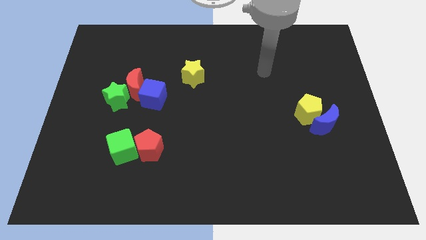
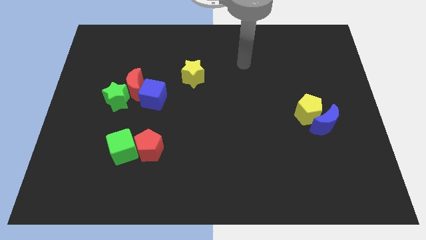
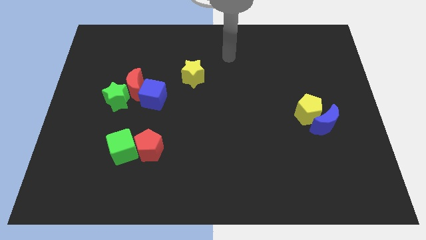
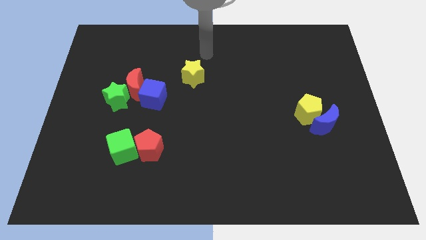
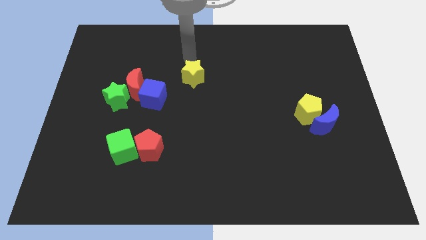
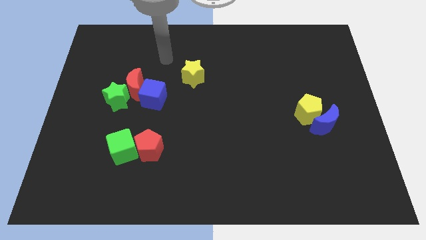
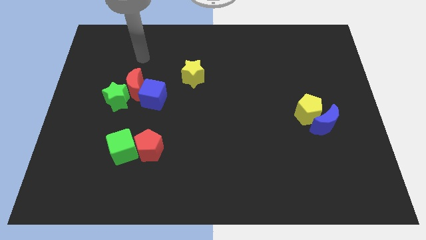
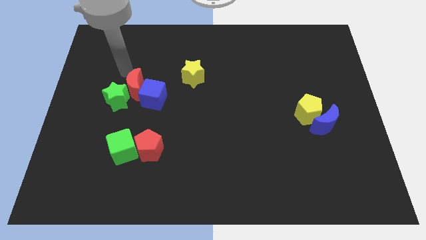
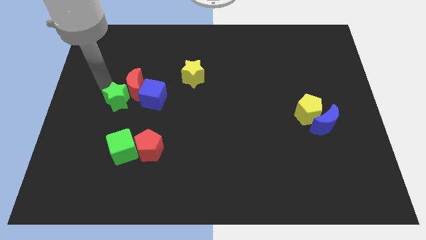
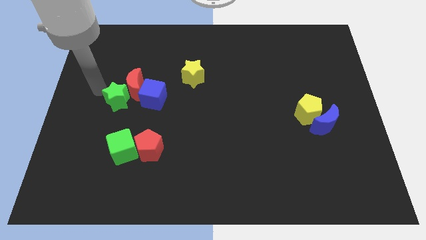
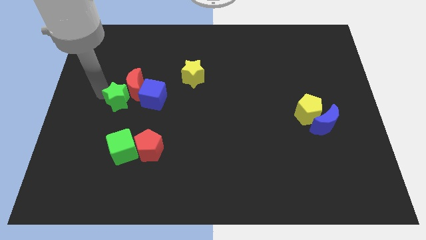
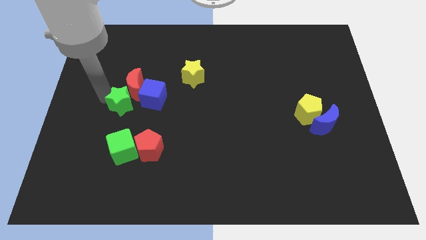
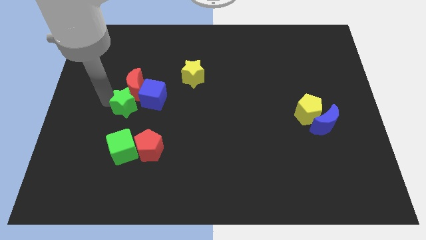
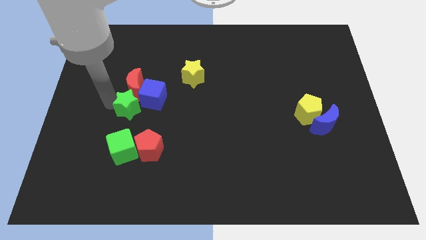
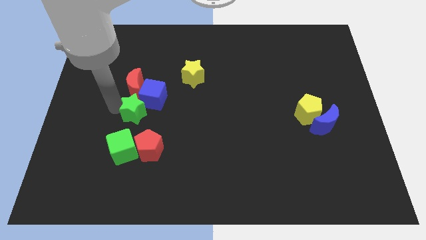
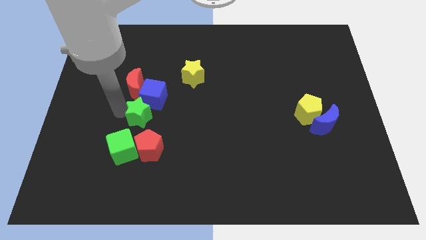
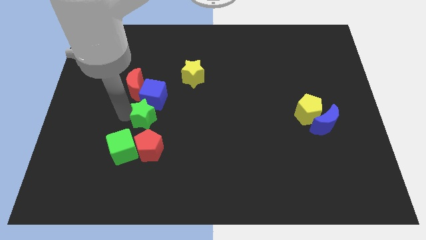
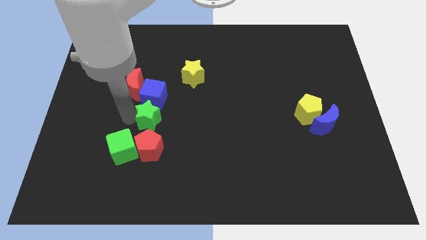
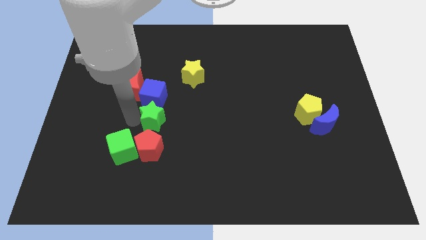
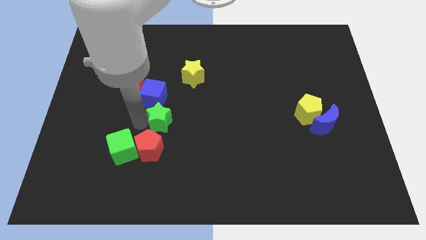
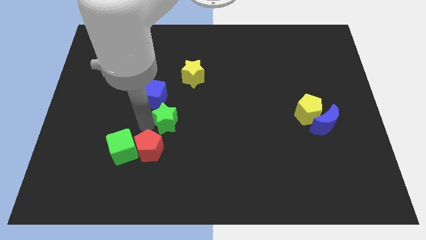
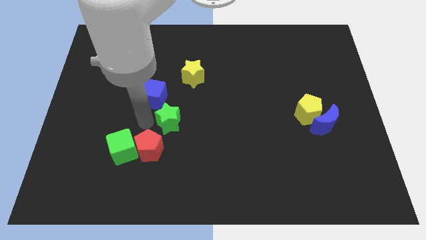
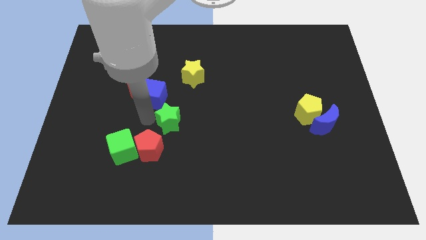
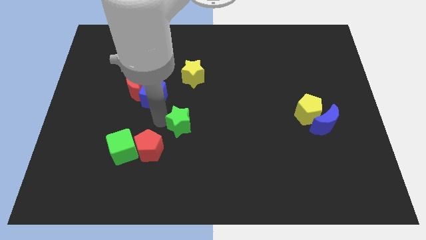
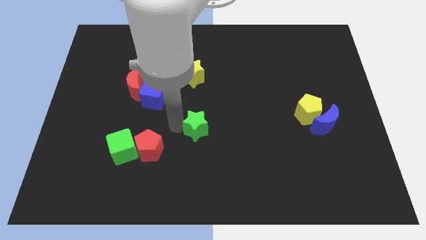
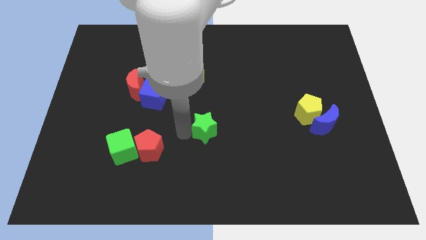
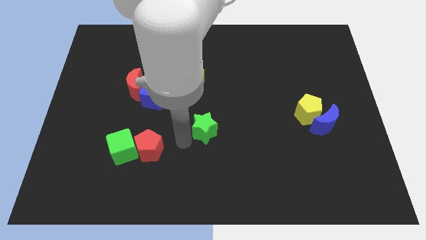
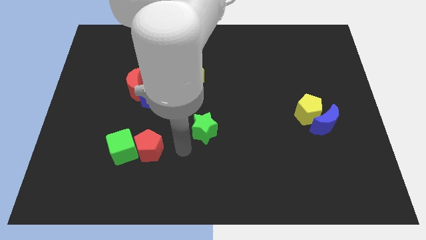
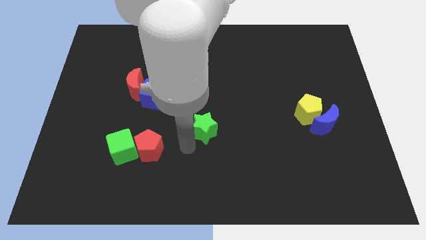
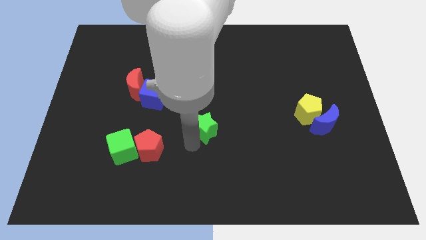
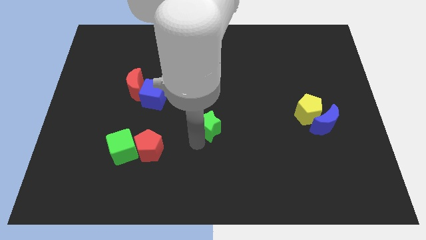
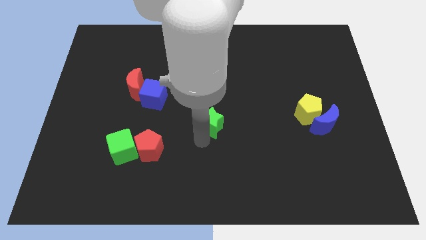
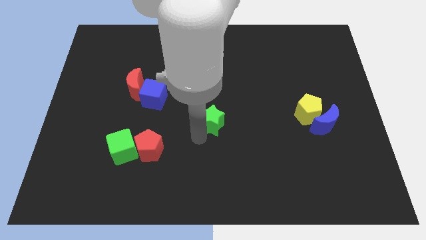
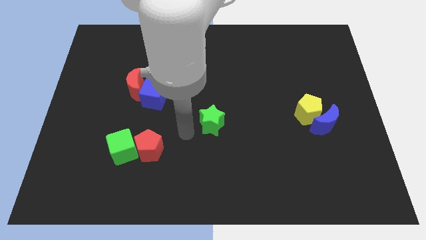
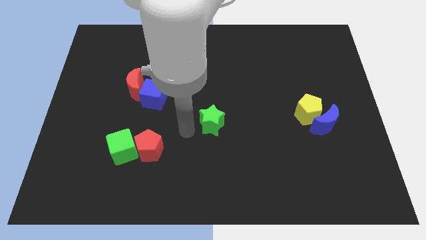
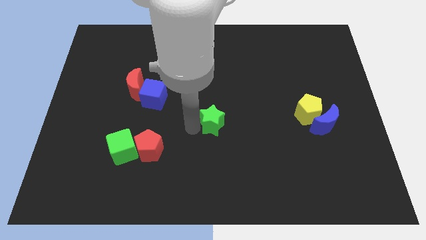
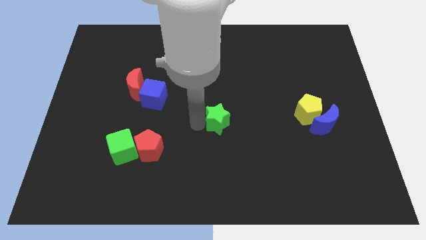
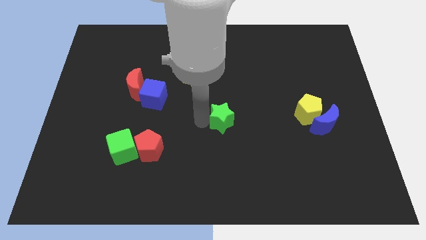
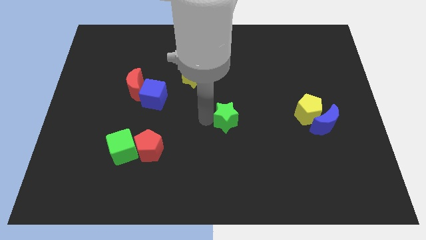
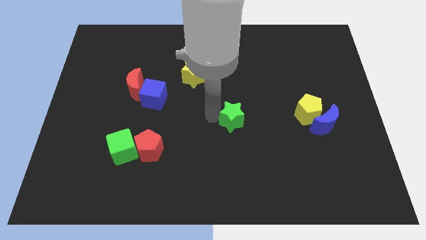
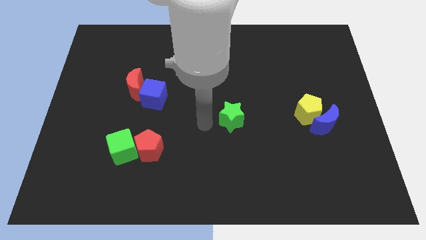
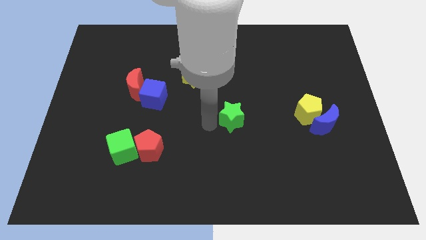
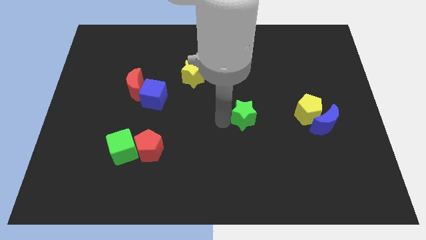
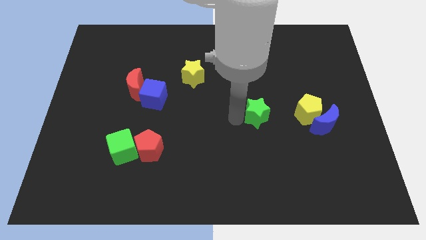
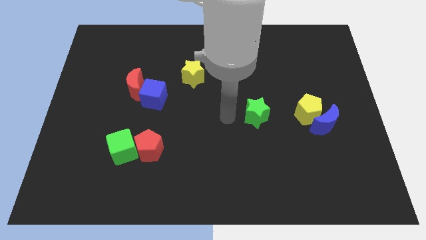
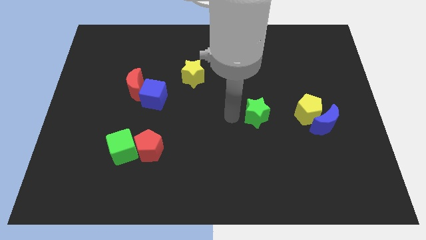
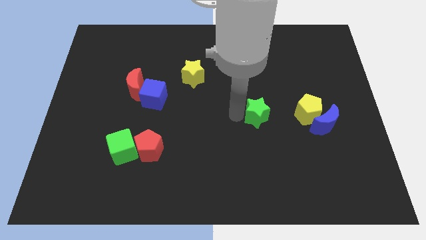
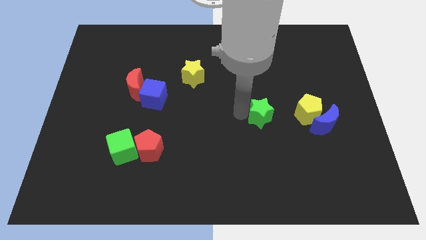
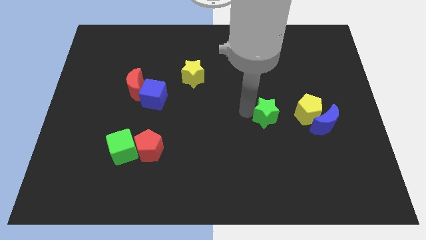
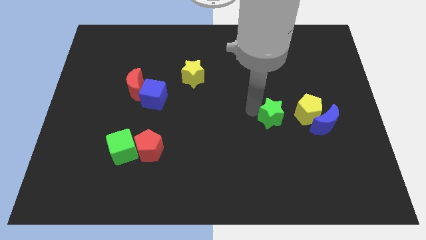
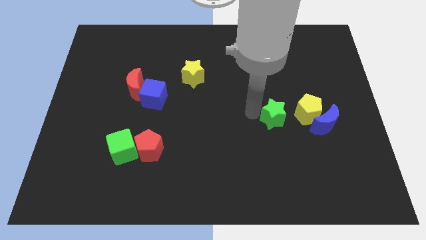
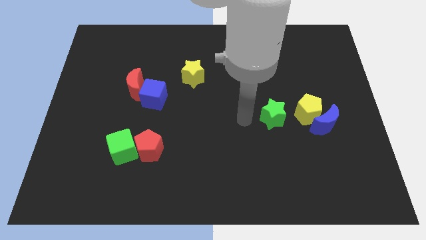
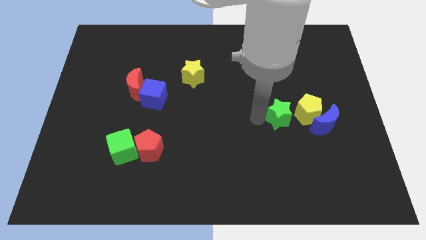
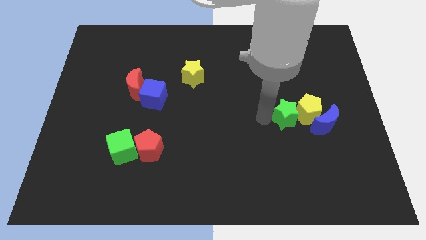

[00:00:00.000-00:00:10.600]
push the green star close to the yellow pentagon

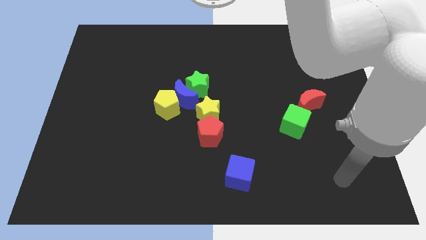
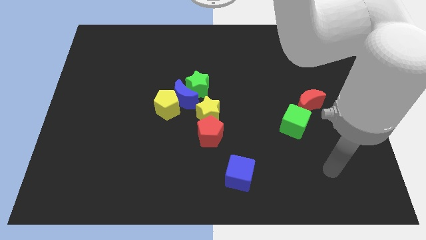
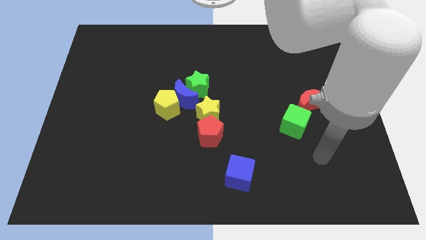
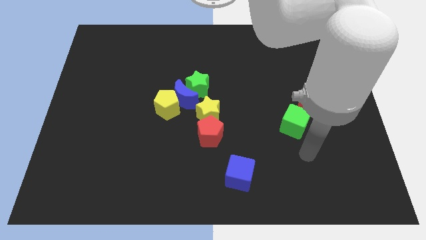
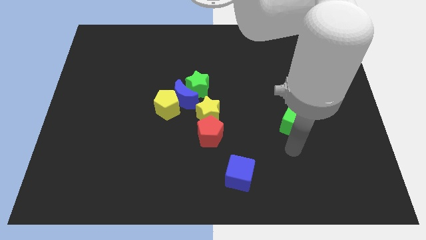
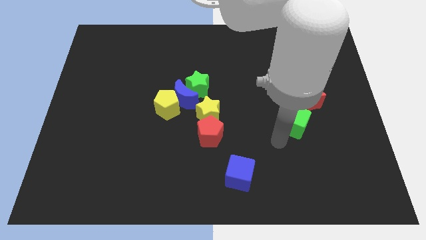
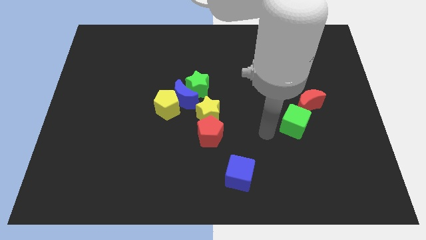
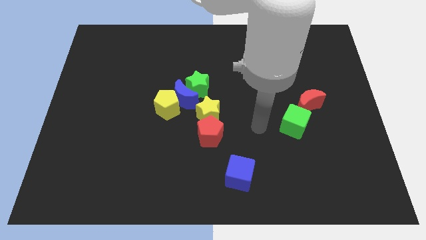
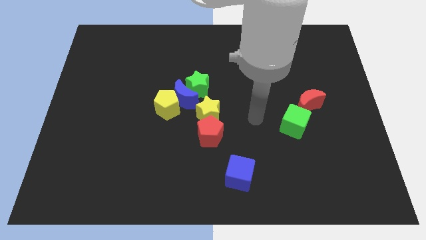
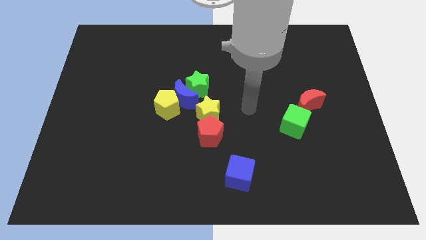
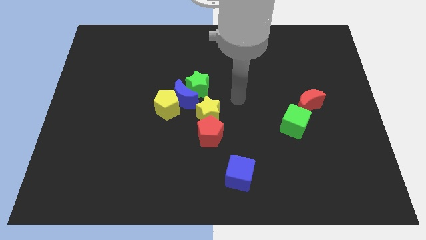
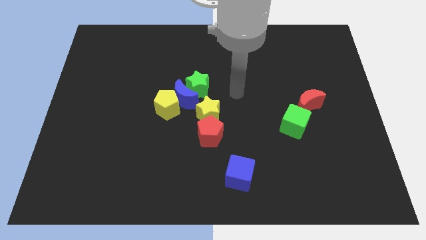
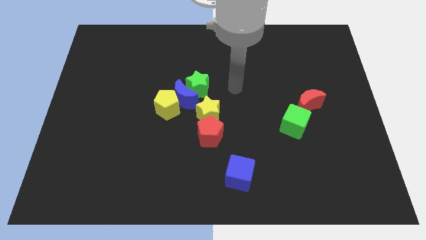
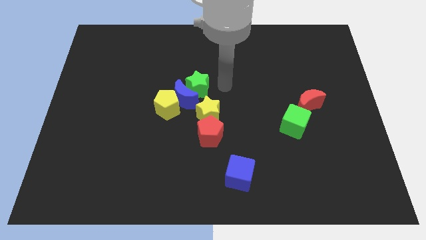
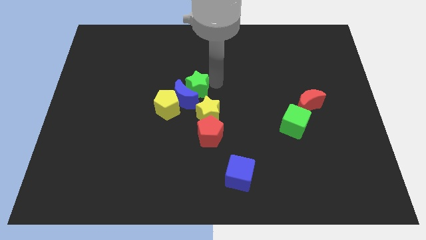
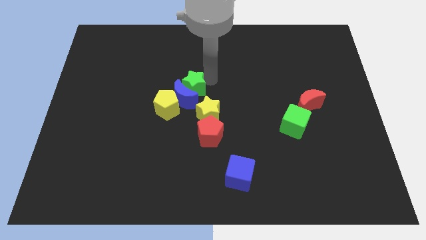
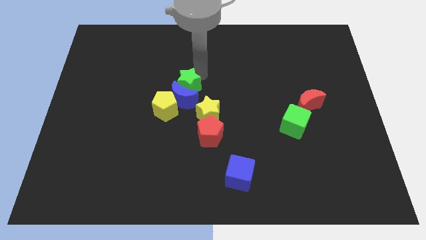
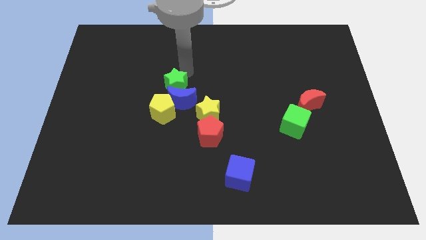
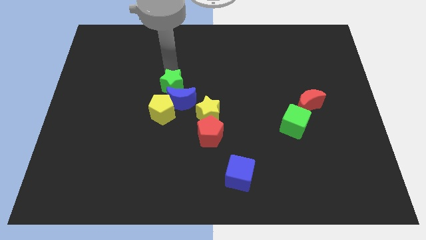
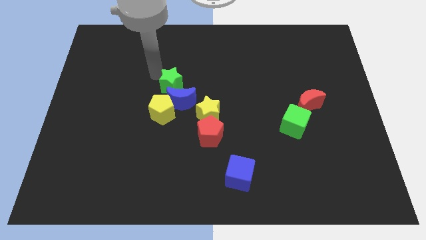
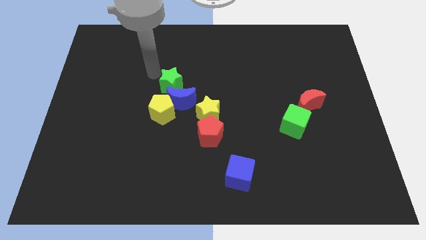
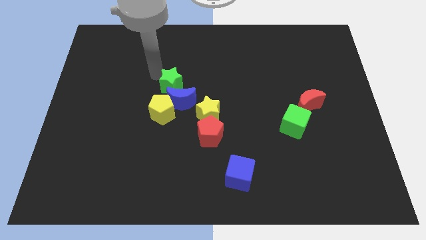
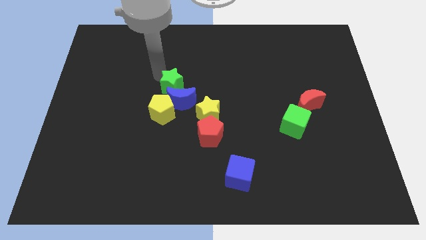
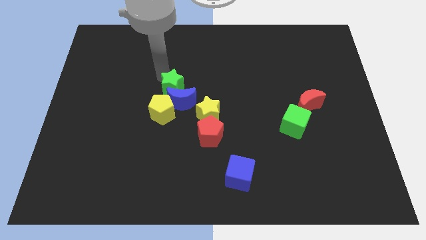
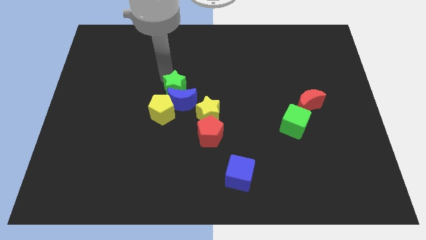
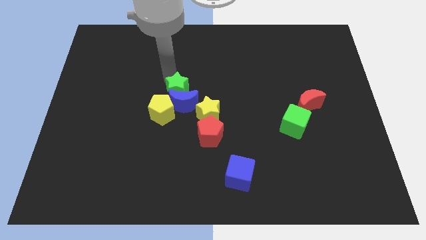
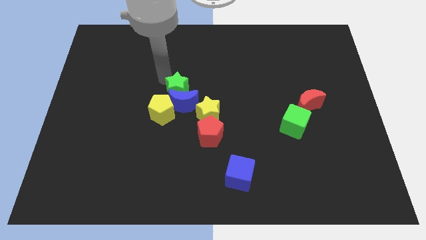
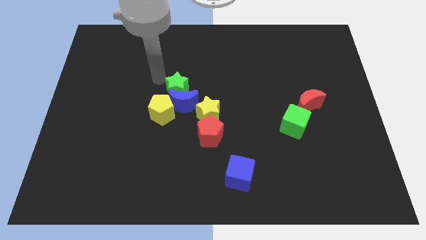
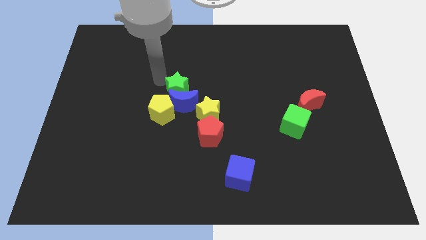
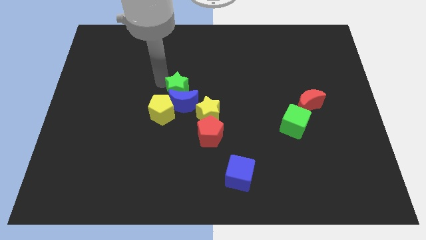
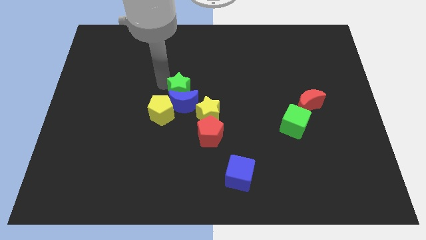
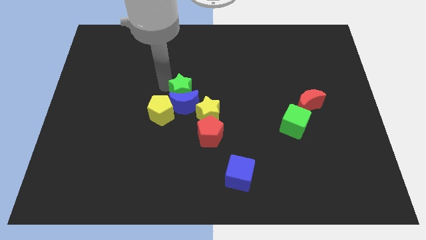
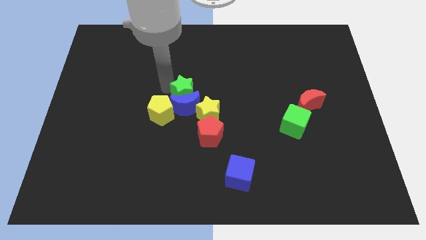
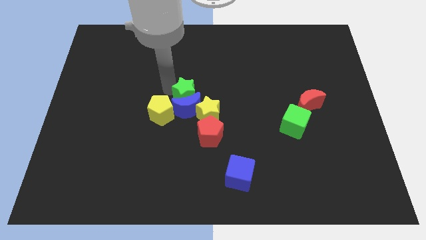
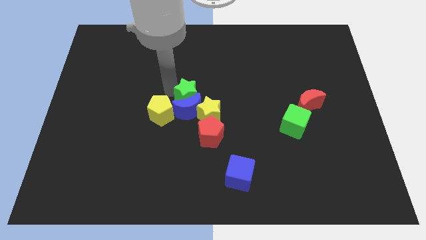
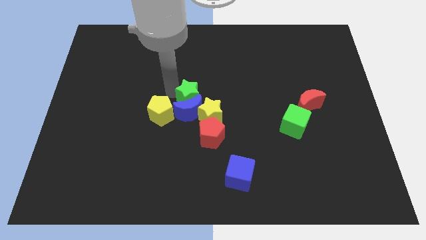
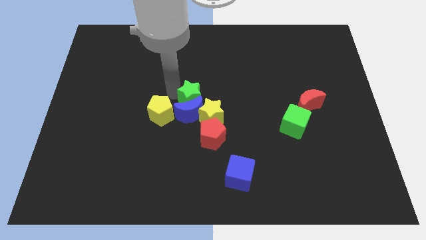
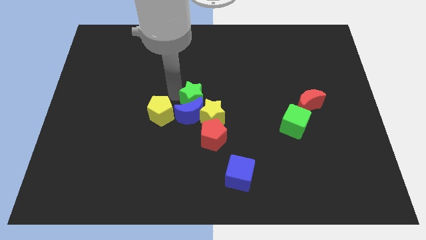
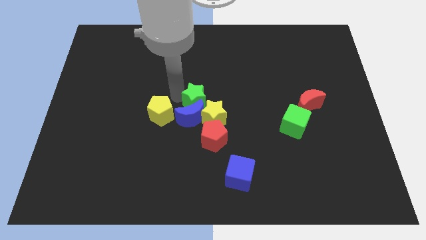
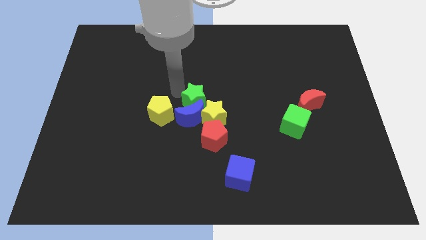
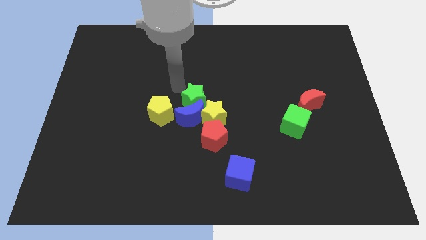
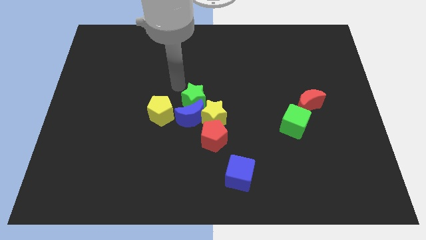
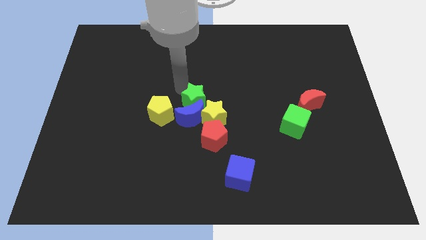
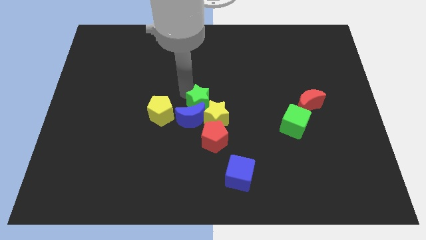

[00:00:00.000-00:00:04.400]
put the green star close to the yellow star
